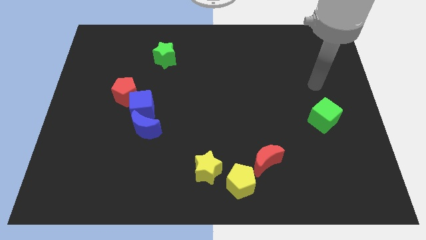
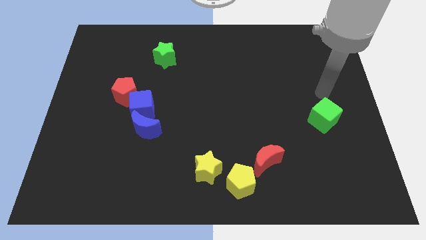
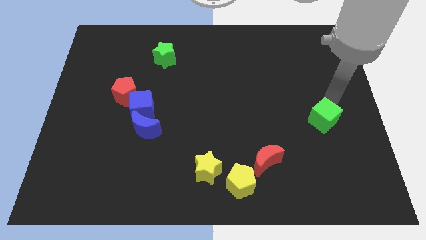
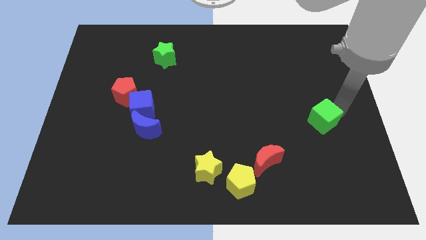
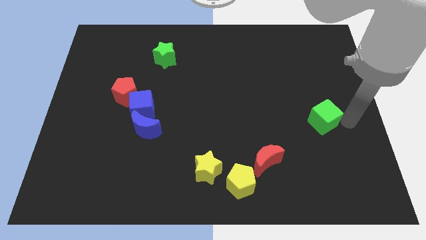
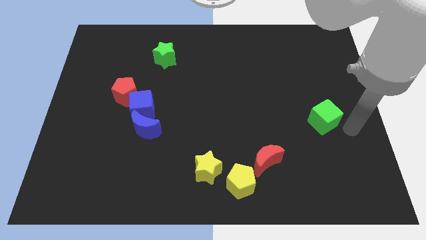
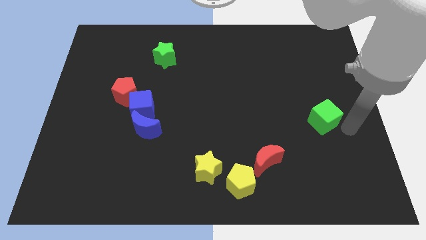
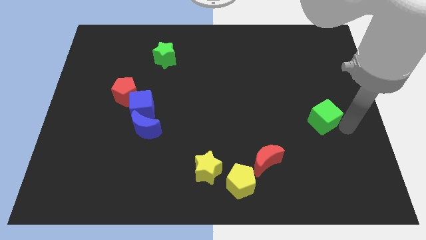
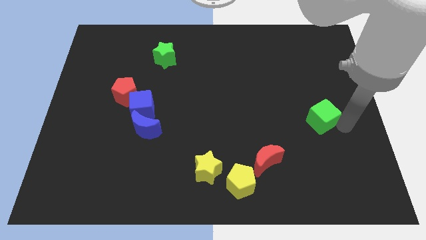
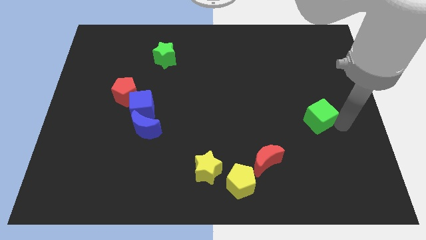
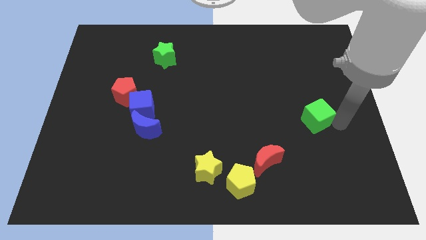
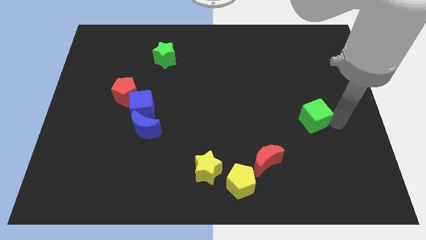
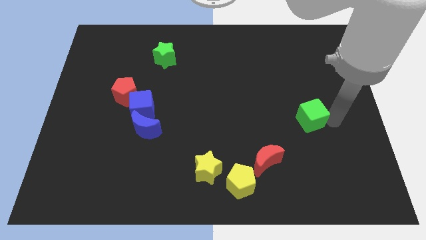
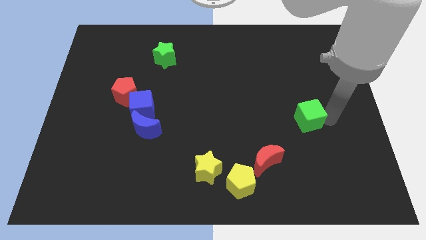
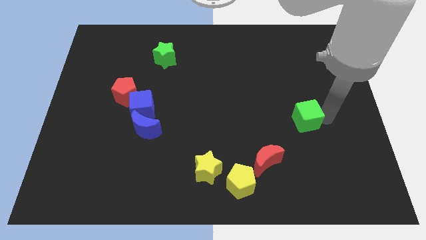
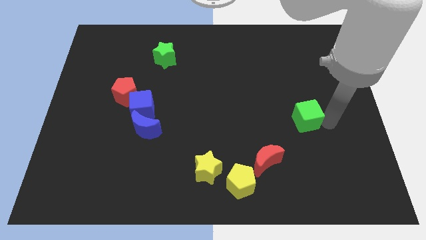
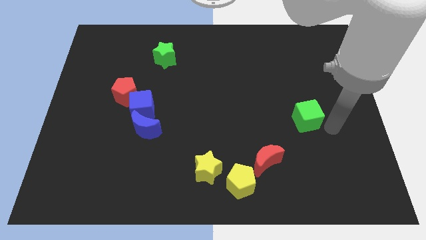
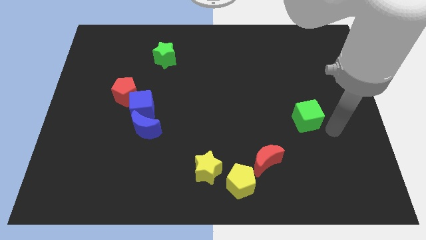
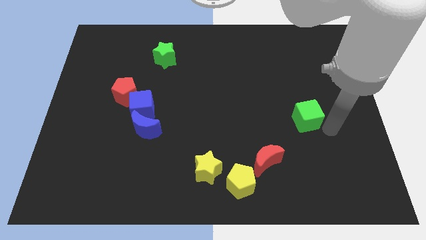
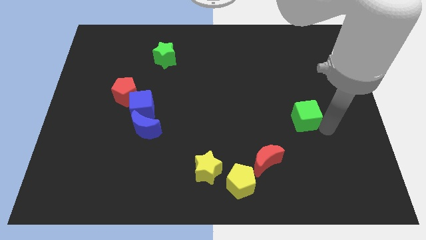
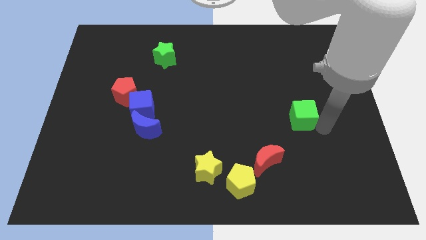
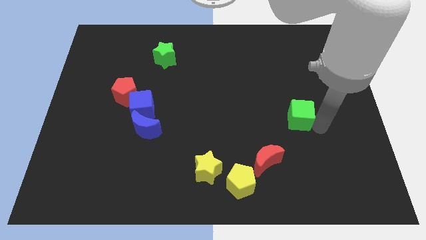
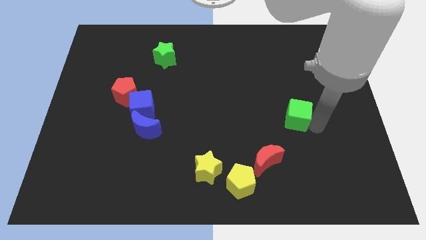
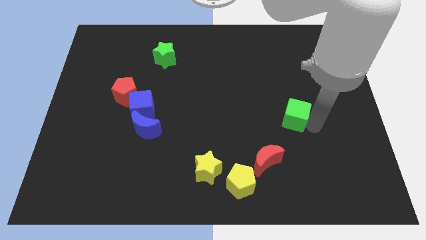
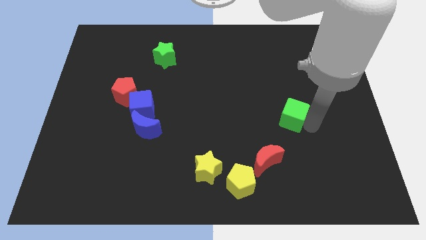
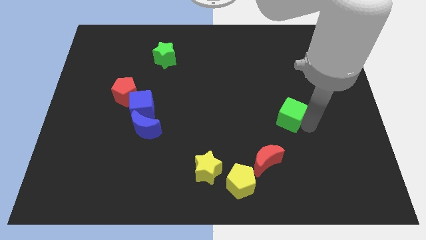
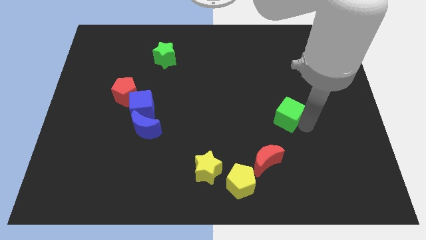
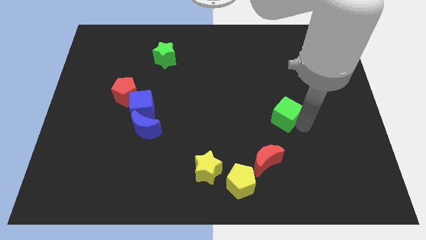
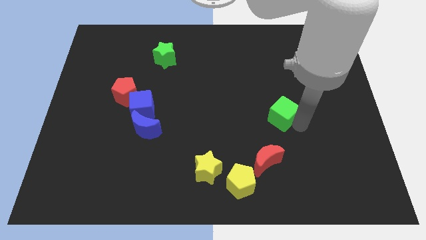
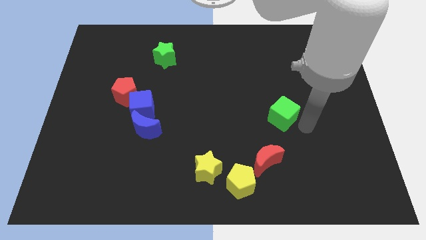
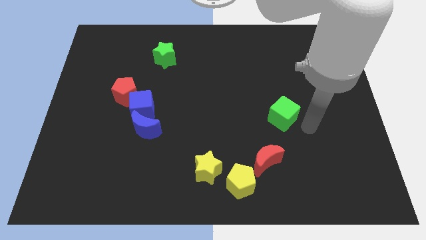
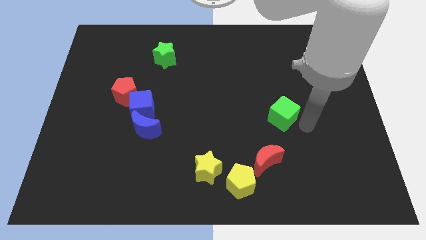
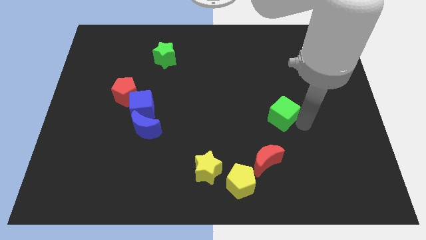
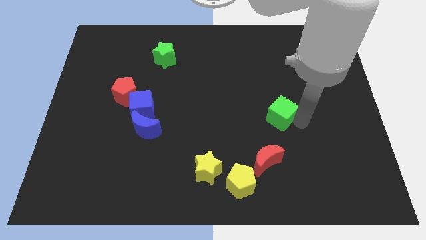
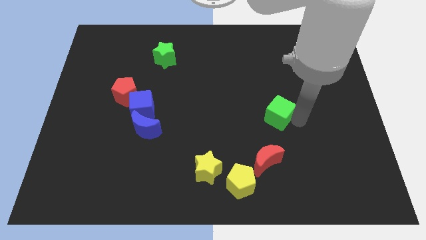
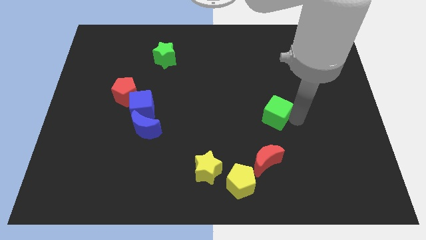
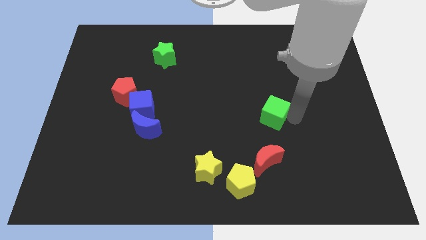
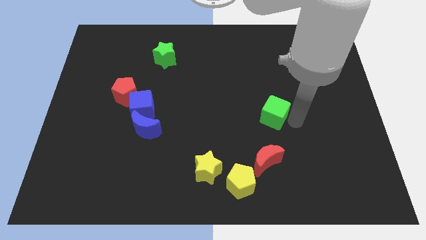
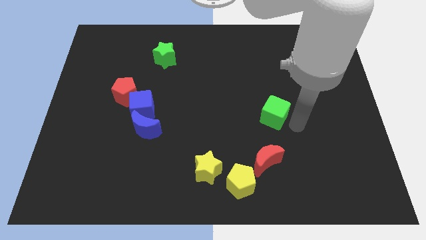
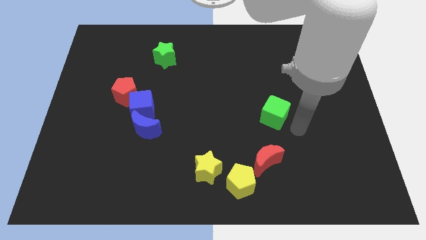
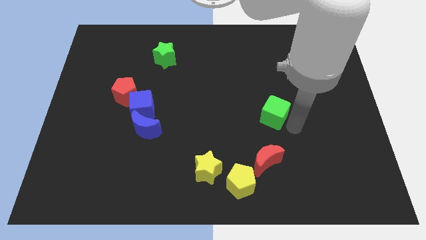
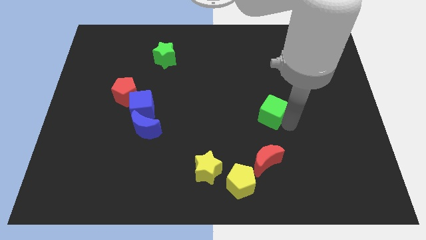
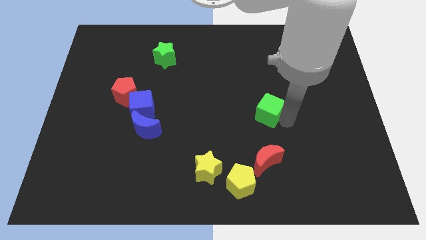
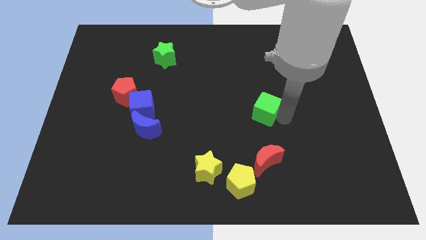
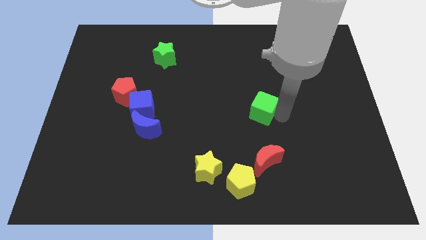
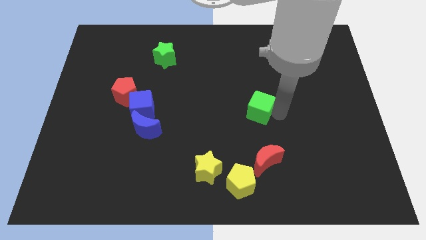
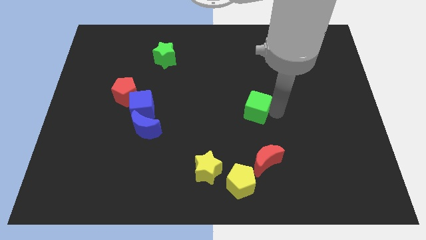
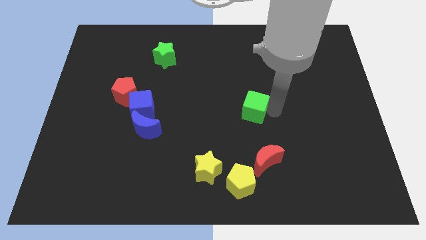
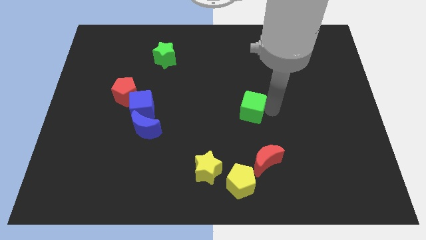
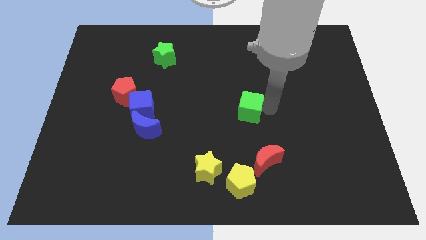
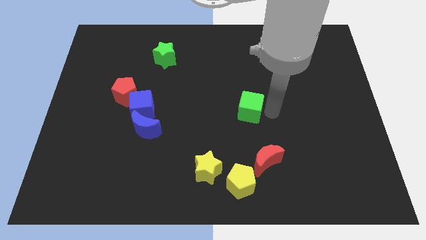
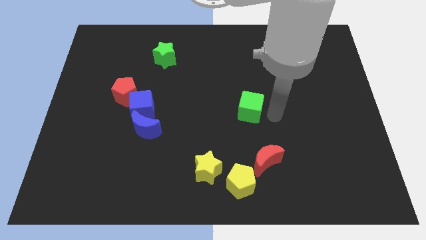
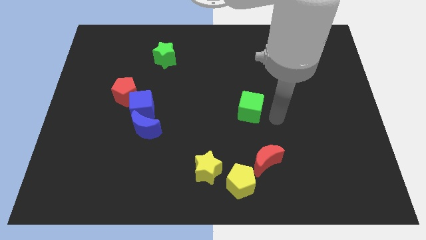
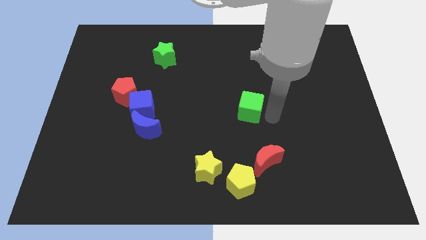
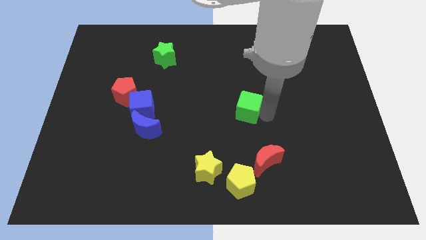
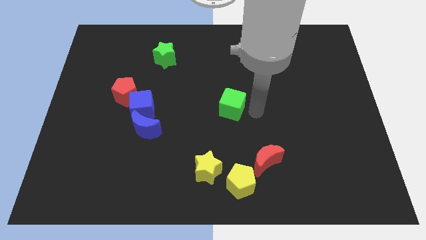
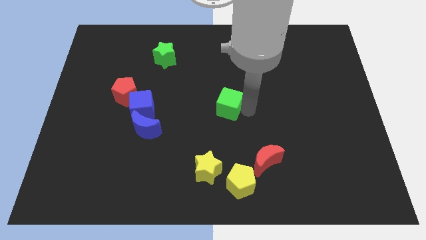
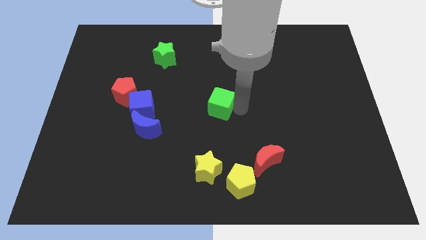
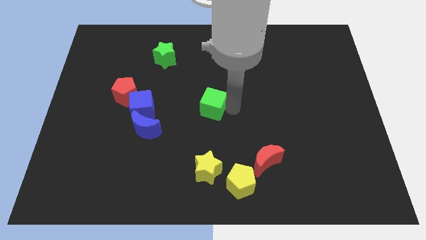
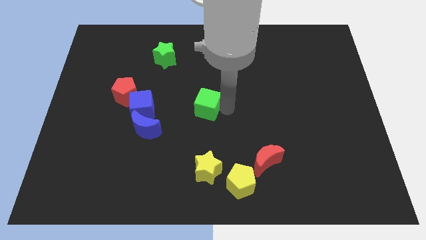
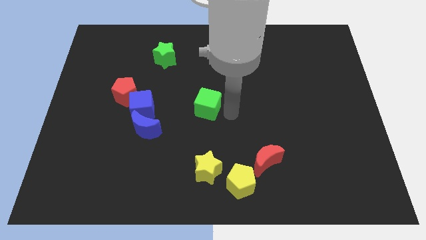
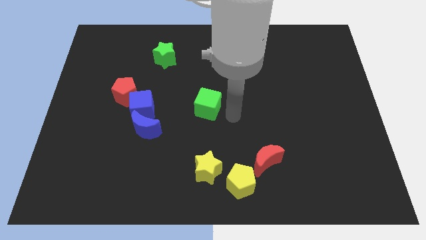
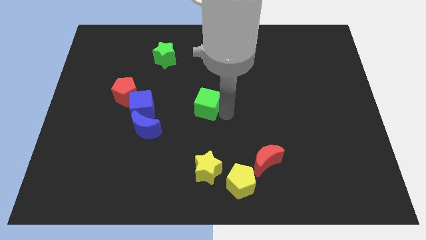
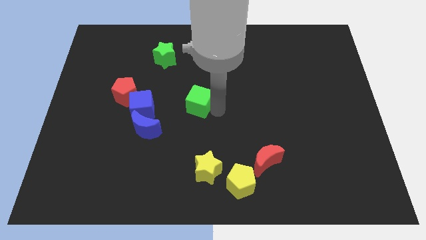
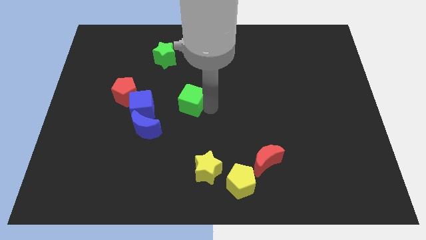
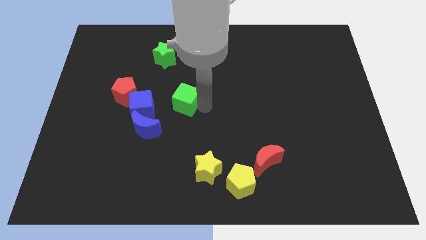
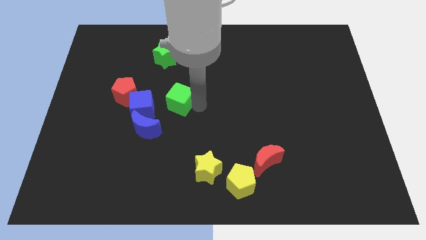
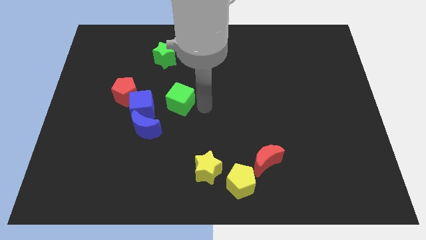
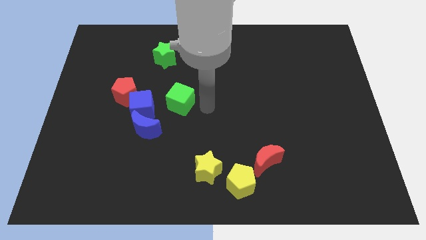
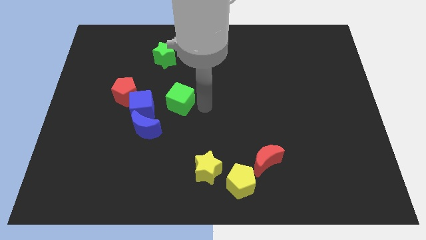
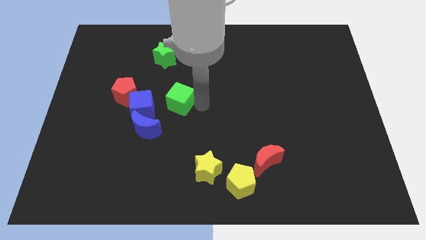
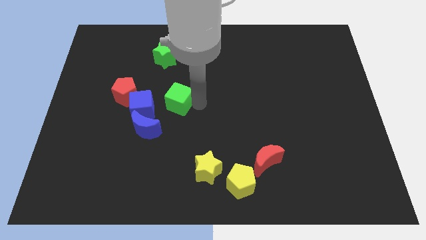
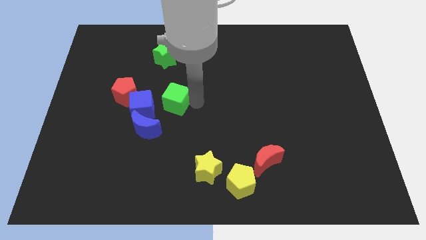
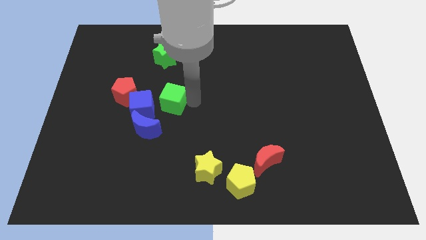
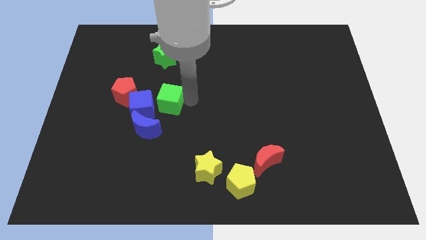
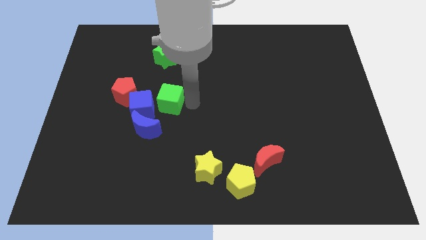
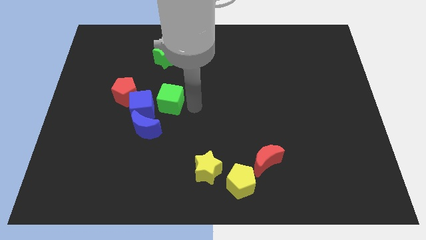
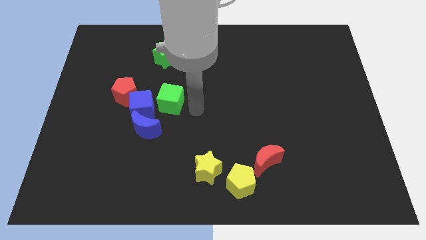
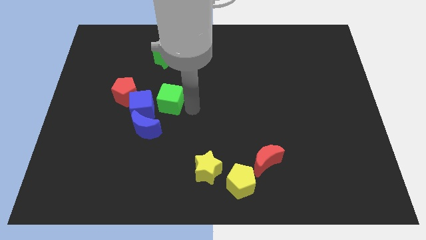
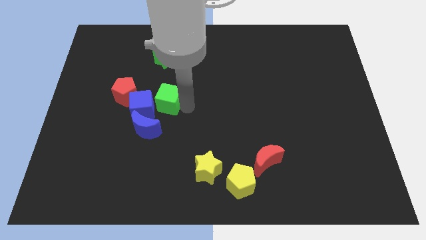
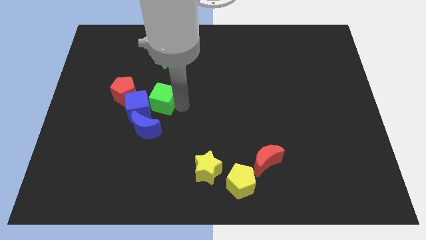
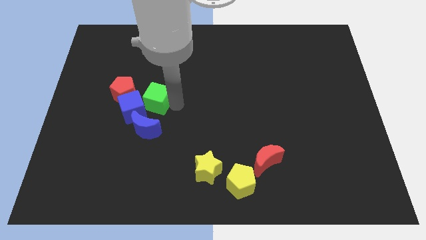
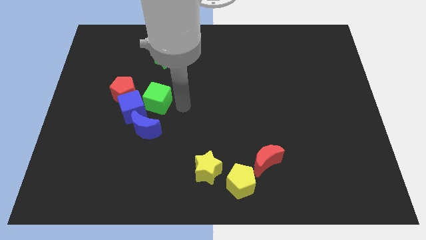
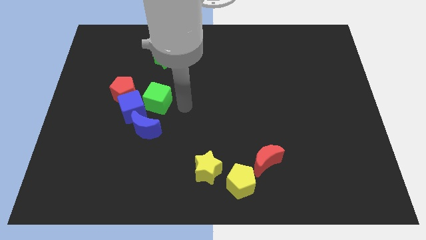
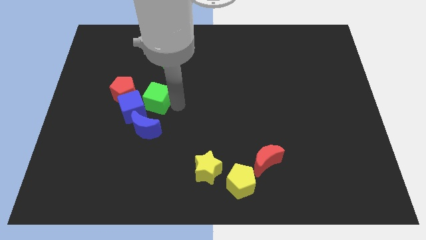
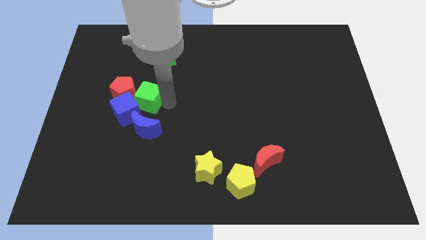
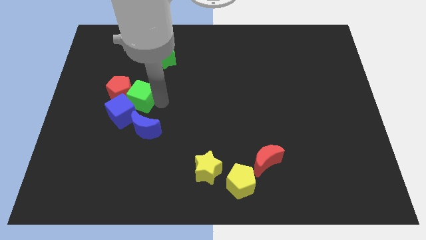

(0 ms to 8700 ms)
put the green cube to the red pentagon
